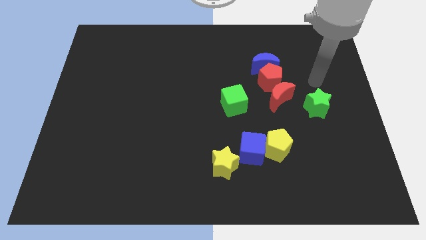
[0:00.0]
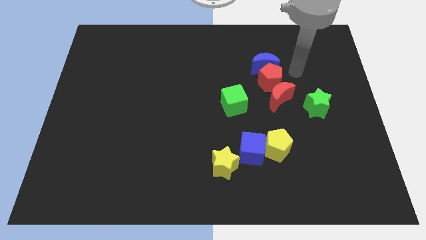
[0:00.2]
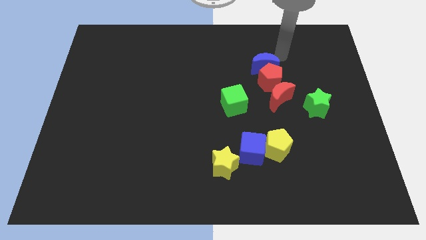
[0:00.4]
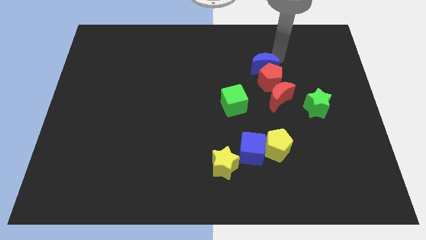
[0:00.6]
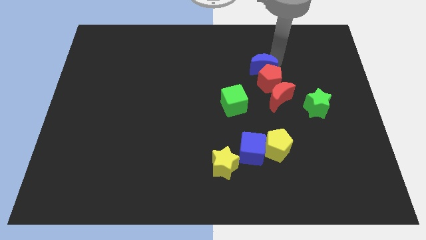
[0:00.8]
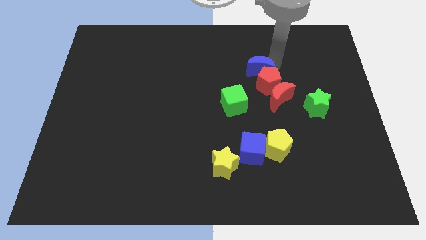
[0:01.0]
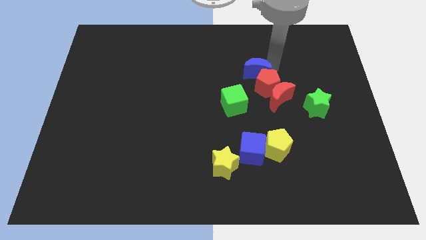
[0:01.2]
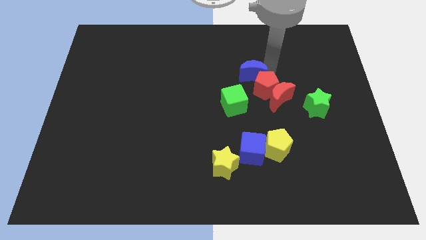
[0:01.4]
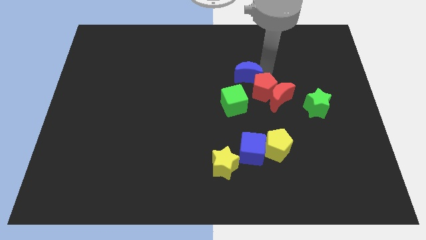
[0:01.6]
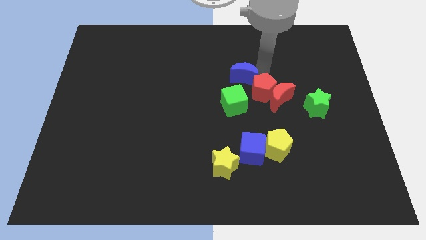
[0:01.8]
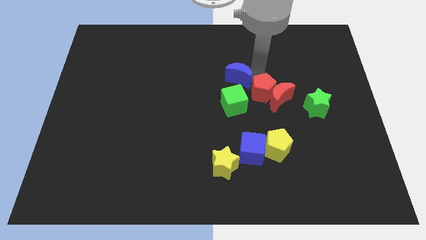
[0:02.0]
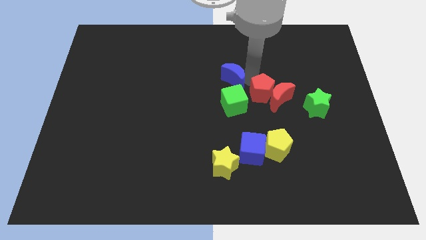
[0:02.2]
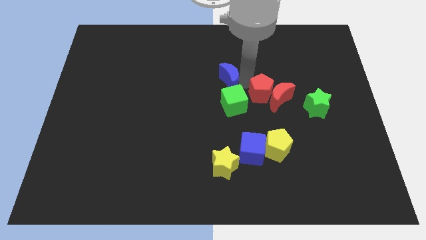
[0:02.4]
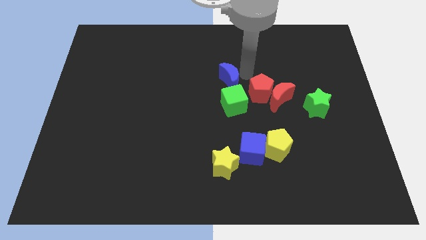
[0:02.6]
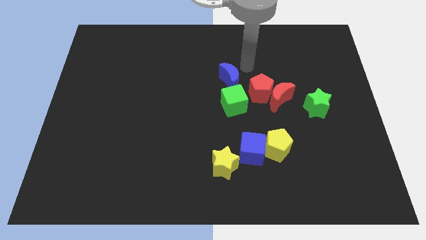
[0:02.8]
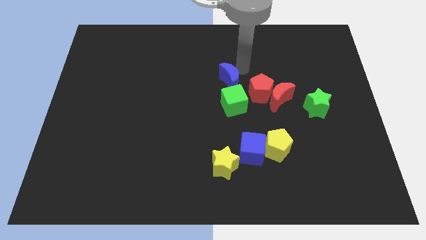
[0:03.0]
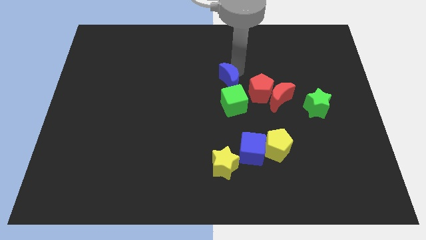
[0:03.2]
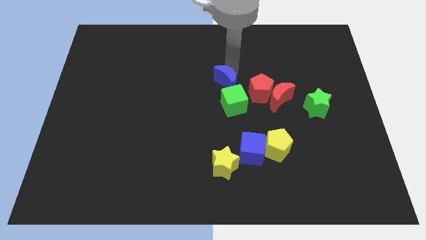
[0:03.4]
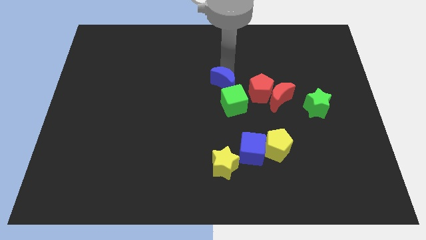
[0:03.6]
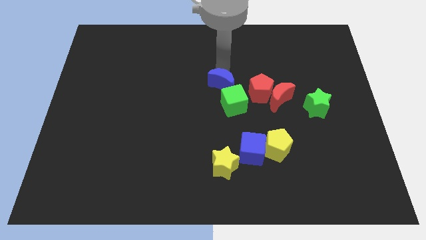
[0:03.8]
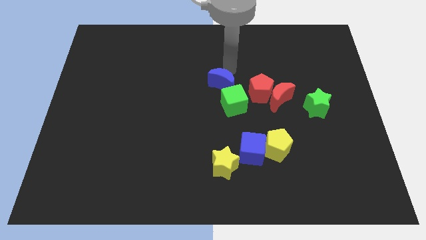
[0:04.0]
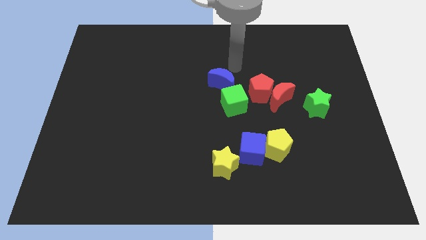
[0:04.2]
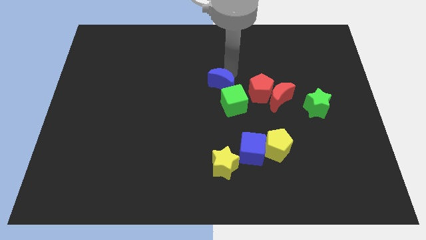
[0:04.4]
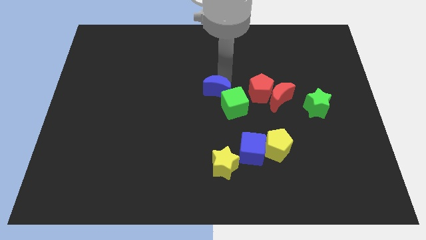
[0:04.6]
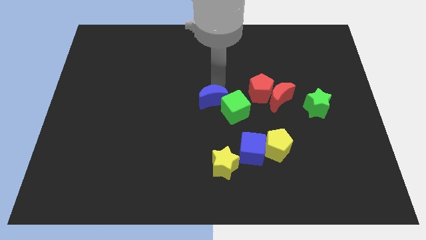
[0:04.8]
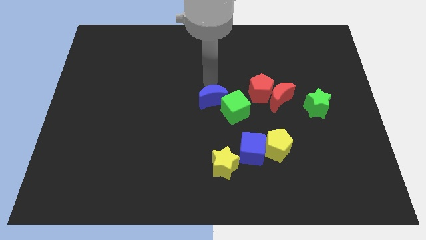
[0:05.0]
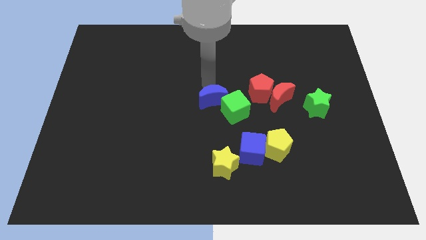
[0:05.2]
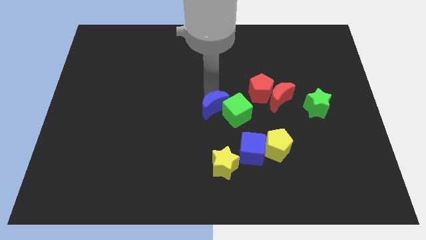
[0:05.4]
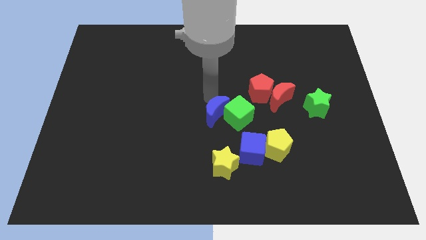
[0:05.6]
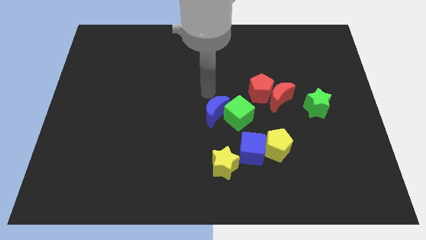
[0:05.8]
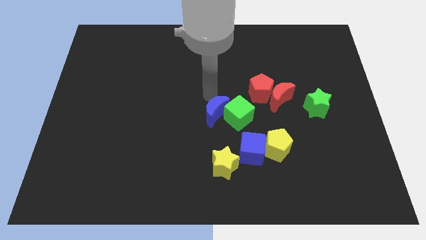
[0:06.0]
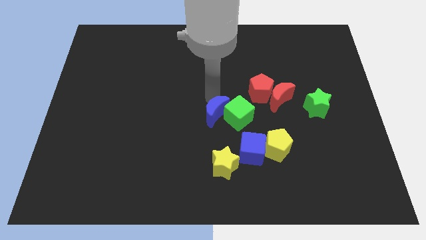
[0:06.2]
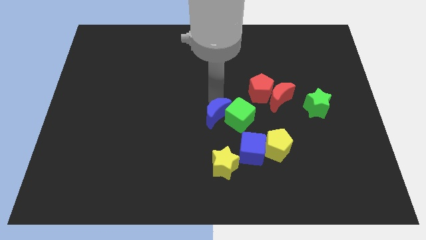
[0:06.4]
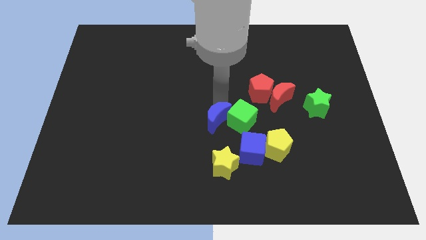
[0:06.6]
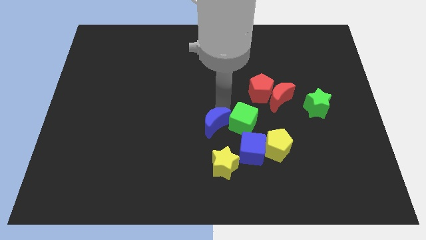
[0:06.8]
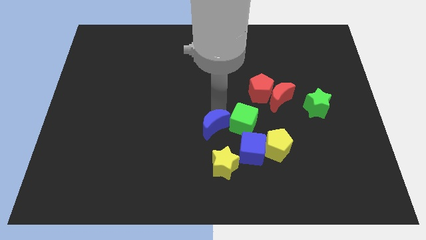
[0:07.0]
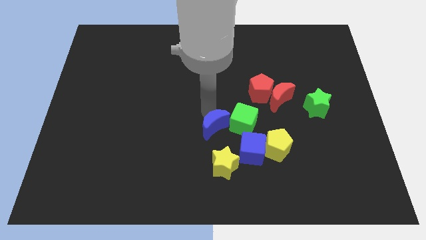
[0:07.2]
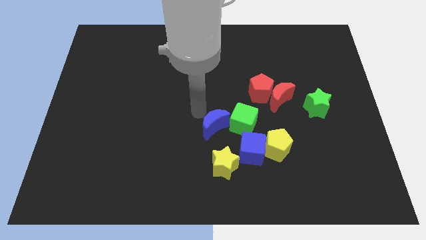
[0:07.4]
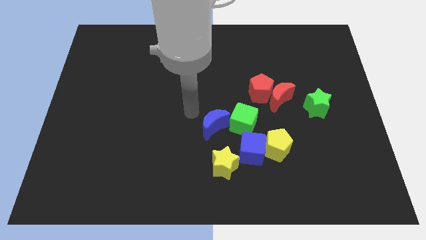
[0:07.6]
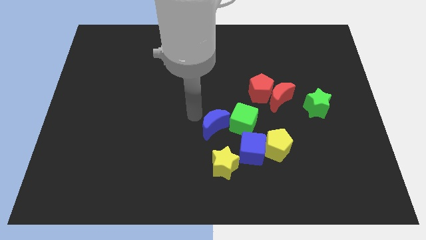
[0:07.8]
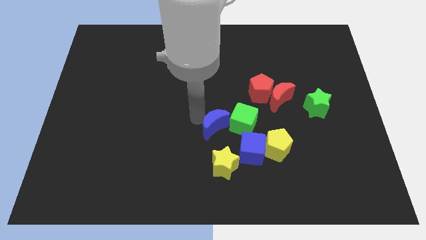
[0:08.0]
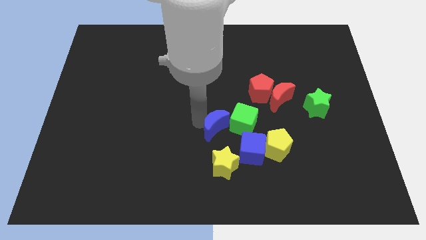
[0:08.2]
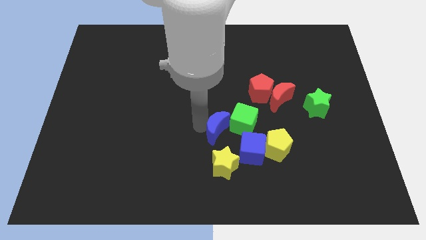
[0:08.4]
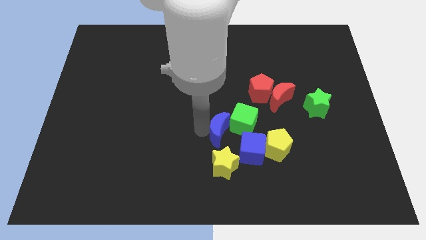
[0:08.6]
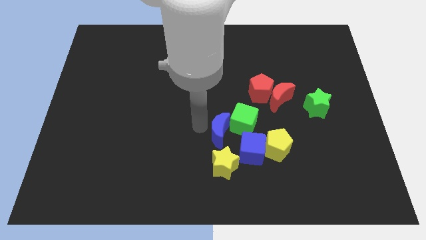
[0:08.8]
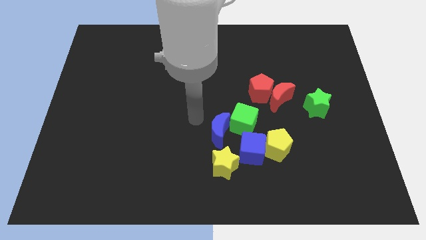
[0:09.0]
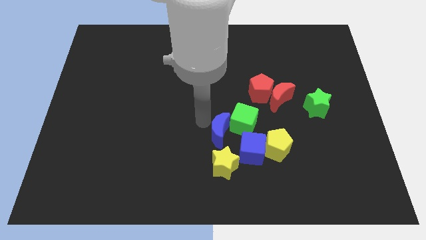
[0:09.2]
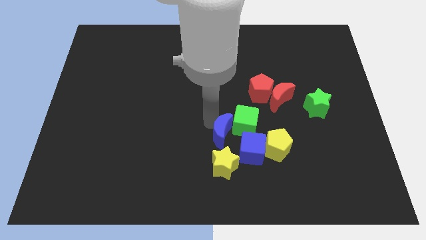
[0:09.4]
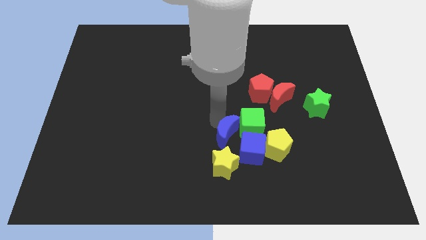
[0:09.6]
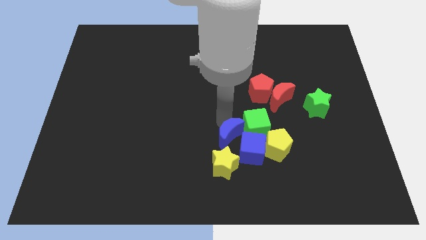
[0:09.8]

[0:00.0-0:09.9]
slide the blue moon next to the blue cube

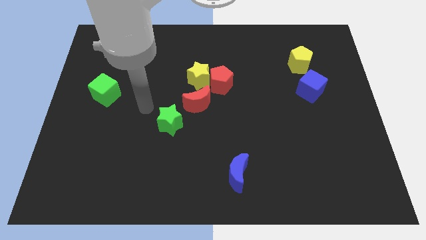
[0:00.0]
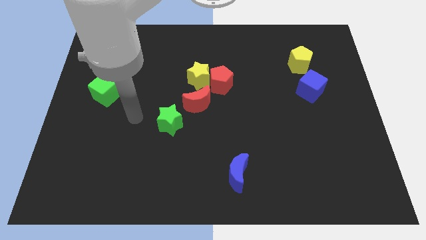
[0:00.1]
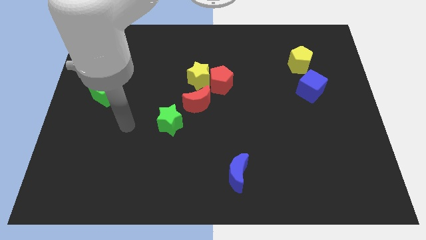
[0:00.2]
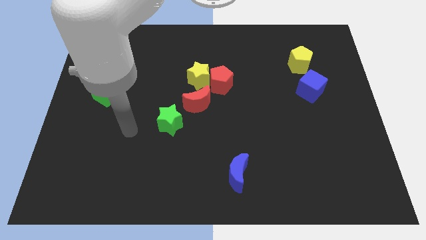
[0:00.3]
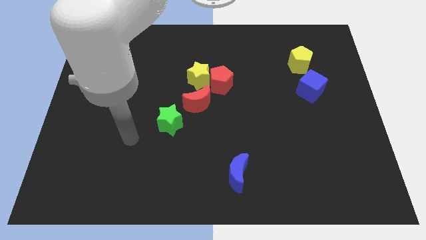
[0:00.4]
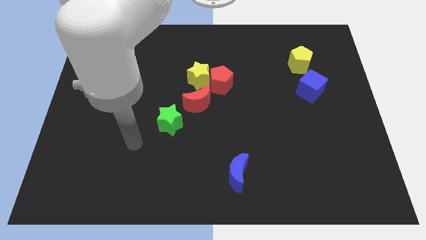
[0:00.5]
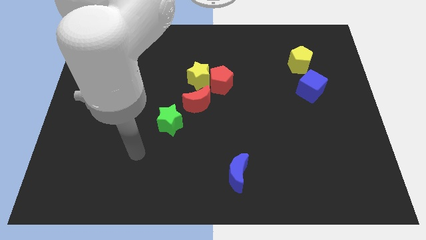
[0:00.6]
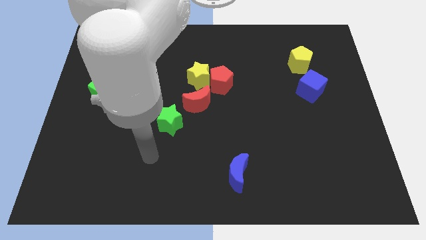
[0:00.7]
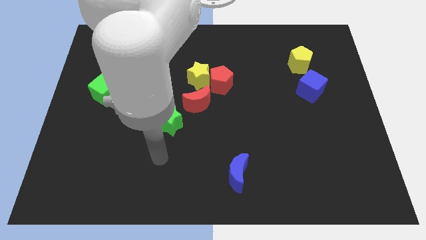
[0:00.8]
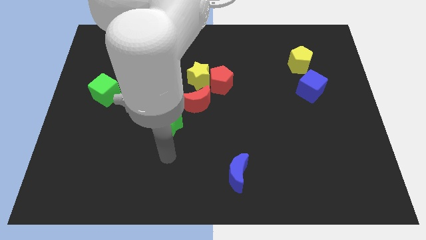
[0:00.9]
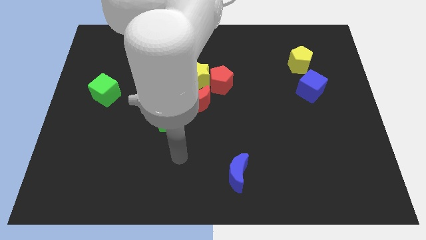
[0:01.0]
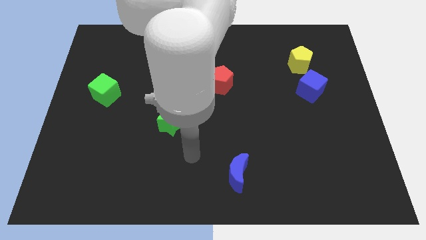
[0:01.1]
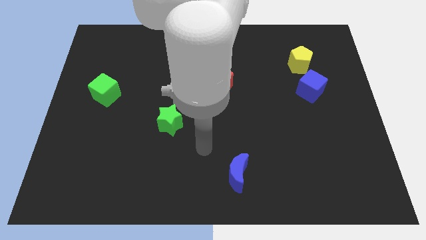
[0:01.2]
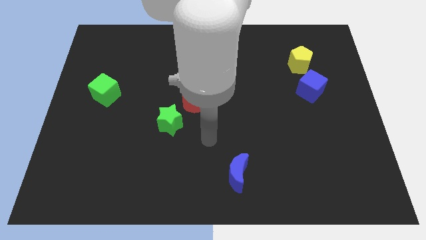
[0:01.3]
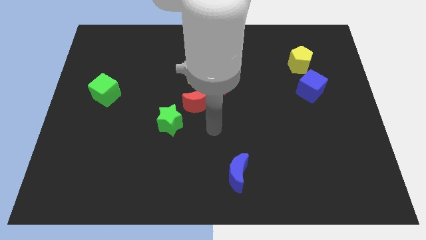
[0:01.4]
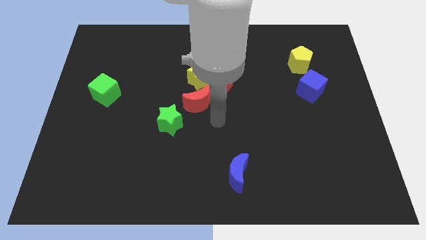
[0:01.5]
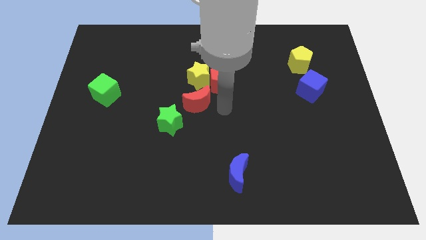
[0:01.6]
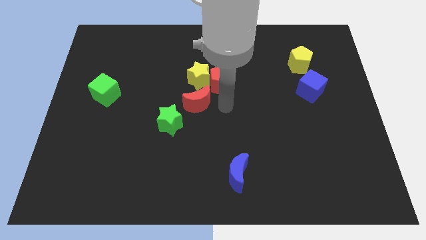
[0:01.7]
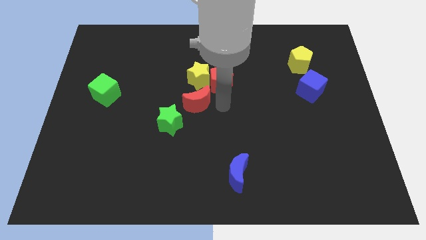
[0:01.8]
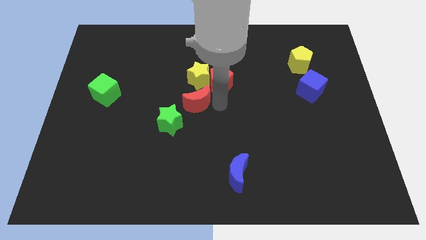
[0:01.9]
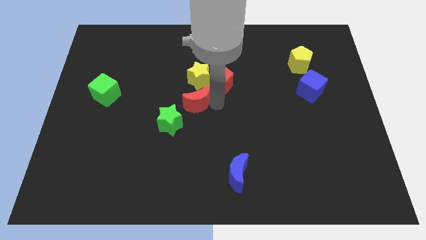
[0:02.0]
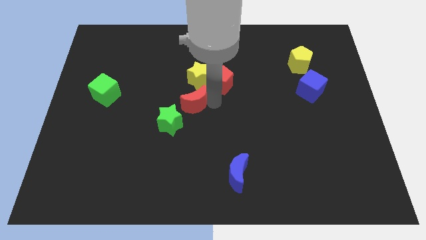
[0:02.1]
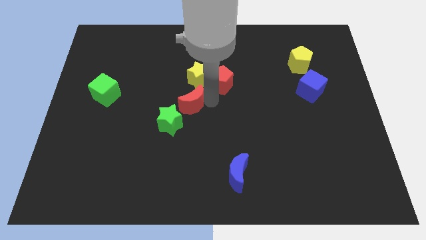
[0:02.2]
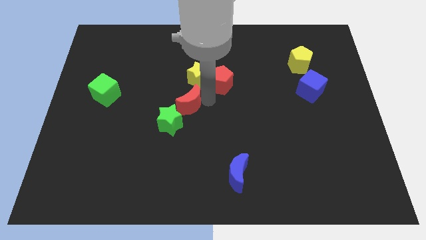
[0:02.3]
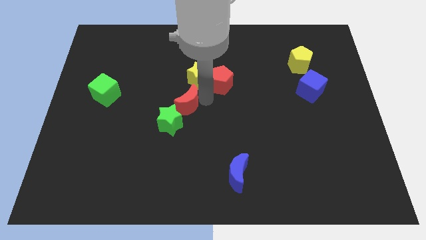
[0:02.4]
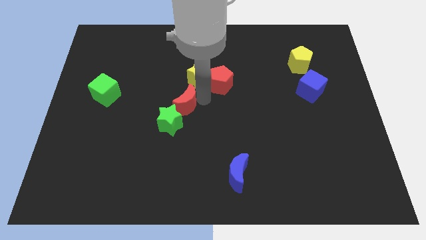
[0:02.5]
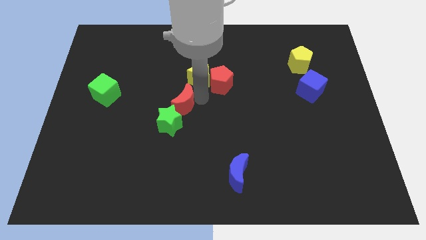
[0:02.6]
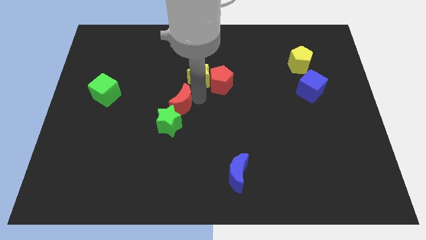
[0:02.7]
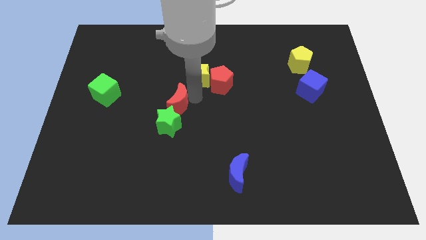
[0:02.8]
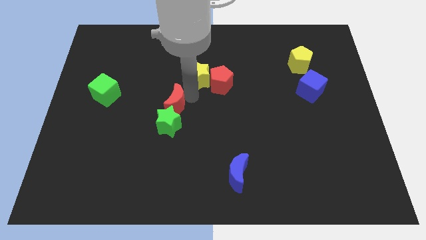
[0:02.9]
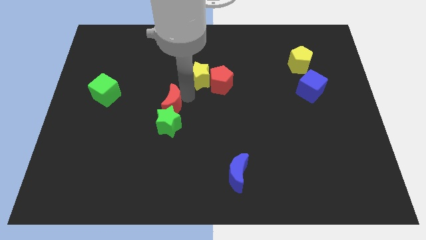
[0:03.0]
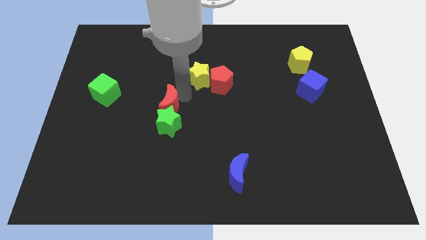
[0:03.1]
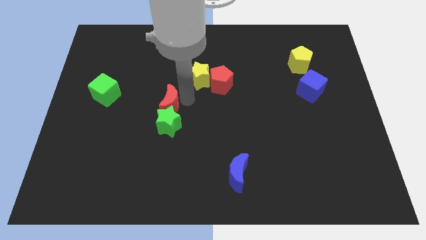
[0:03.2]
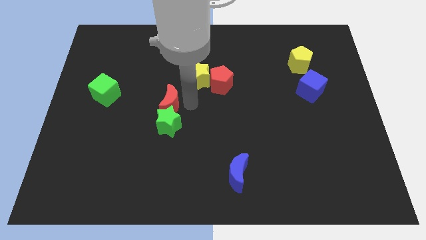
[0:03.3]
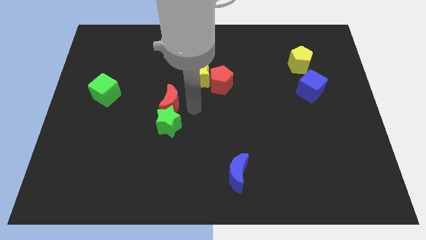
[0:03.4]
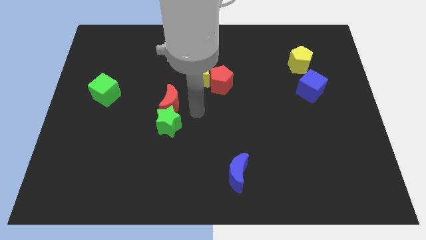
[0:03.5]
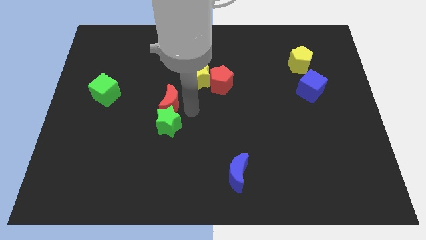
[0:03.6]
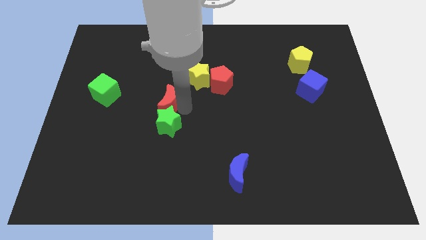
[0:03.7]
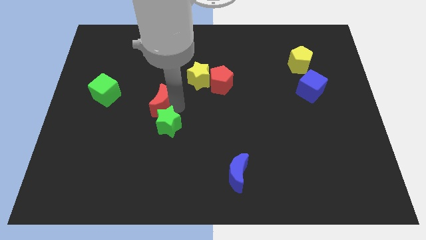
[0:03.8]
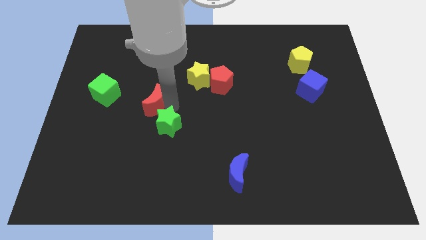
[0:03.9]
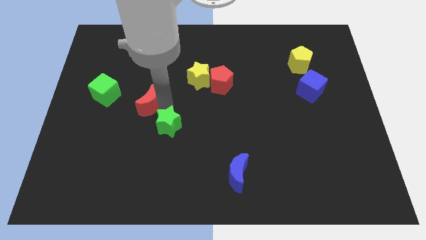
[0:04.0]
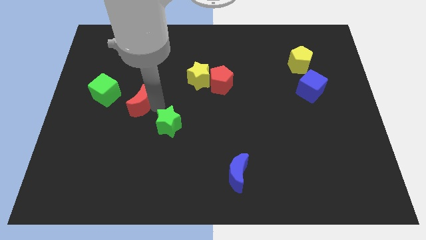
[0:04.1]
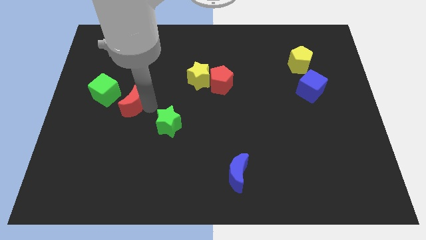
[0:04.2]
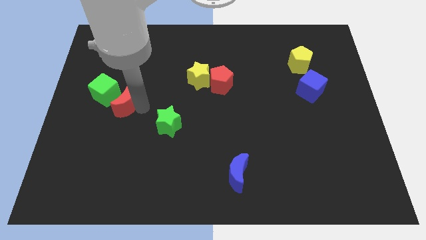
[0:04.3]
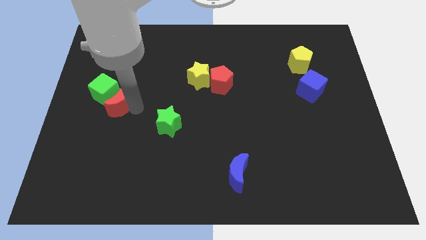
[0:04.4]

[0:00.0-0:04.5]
push the red moon next to the green cube
